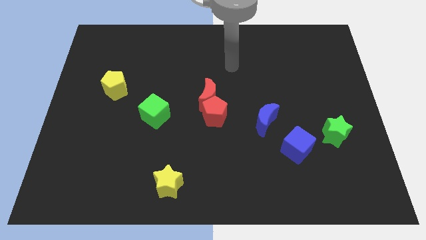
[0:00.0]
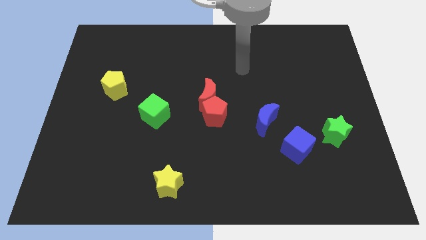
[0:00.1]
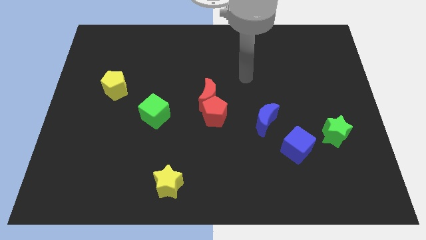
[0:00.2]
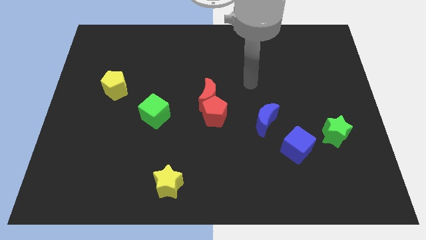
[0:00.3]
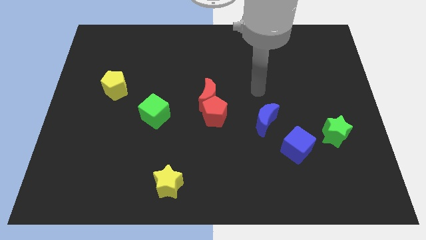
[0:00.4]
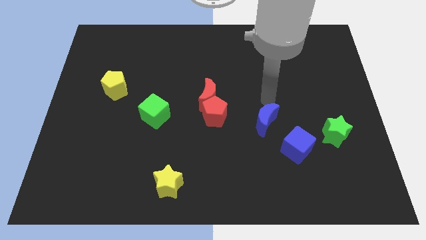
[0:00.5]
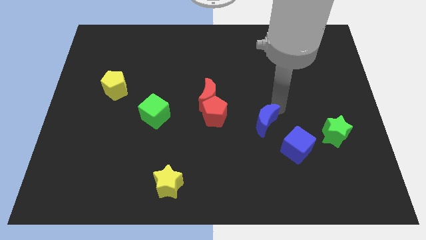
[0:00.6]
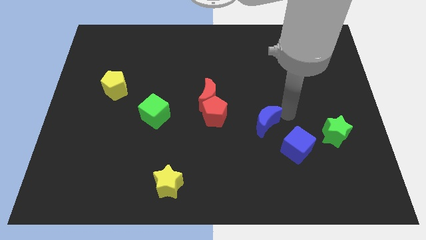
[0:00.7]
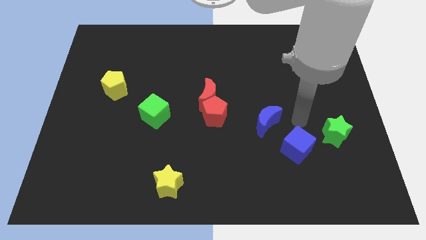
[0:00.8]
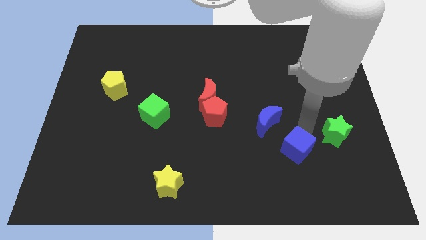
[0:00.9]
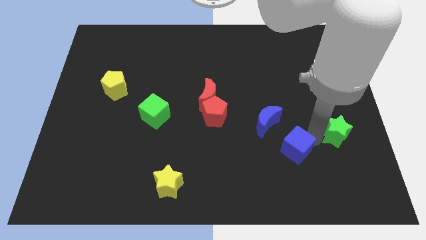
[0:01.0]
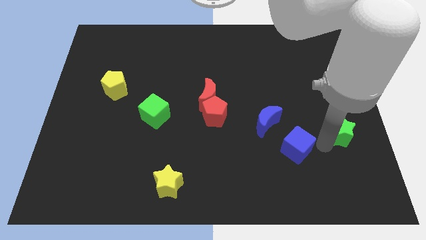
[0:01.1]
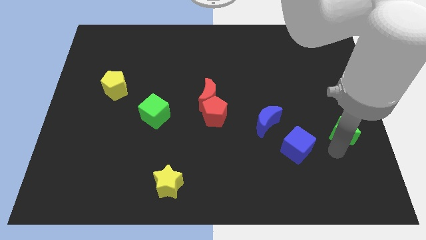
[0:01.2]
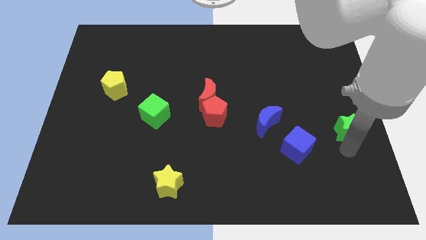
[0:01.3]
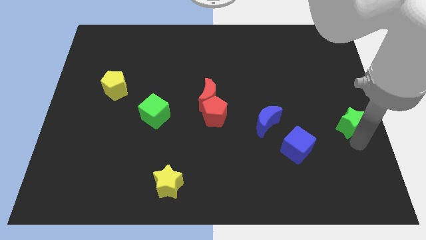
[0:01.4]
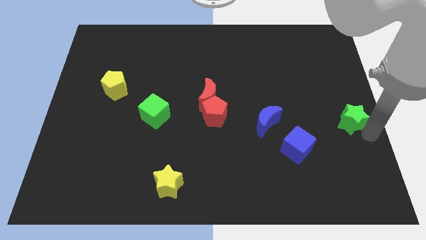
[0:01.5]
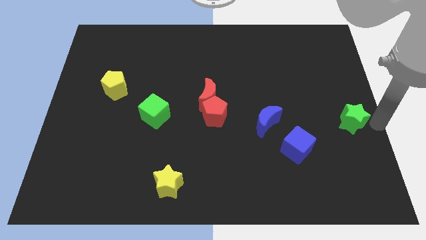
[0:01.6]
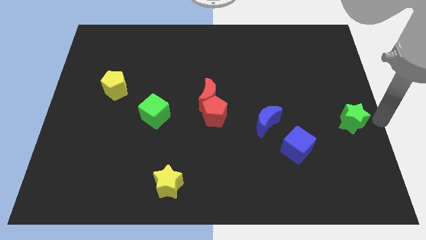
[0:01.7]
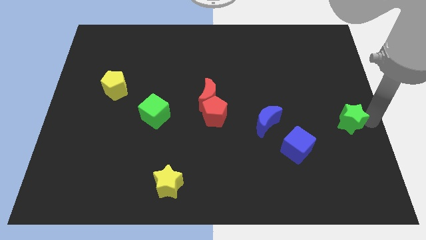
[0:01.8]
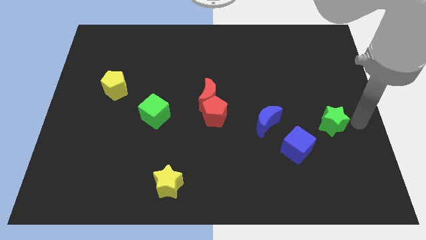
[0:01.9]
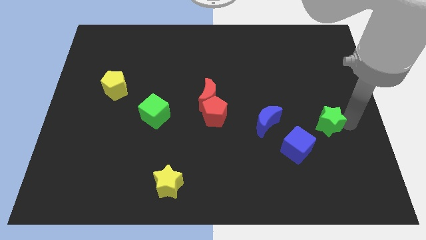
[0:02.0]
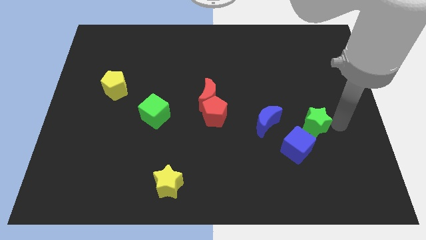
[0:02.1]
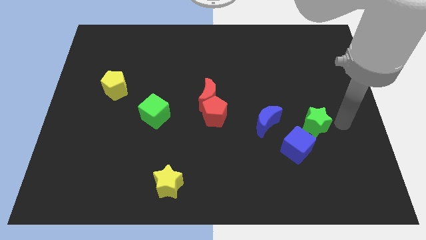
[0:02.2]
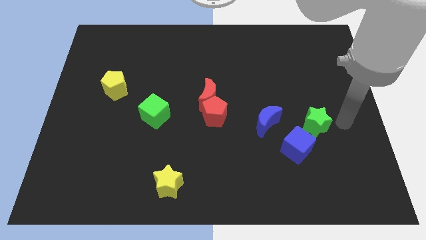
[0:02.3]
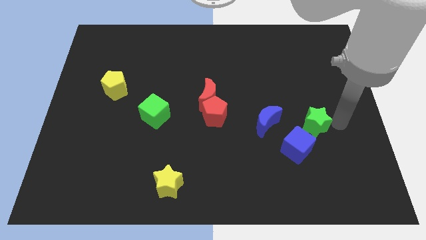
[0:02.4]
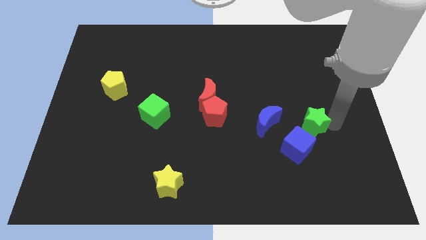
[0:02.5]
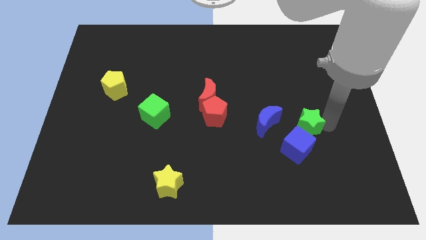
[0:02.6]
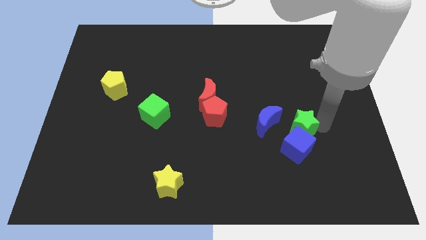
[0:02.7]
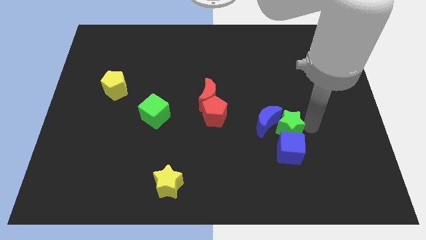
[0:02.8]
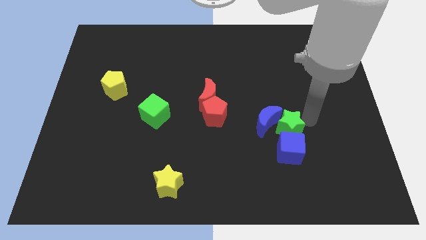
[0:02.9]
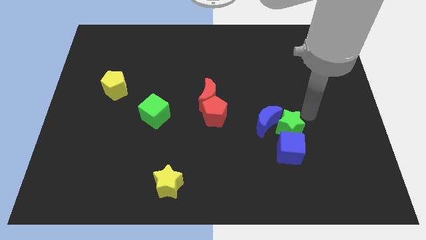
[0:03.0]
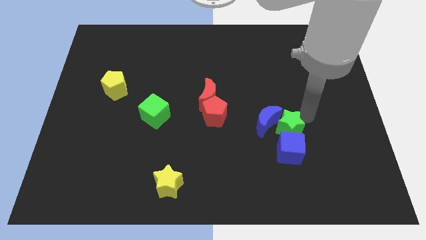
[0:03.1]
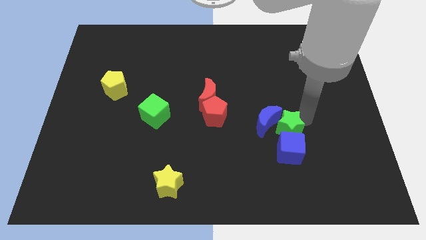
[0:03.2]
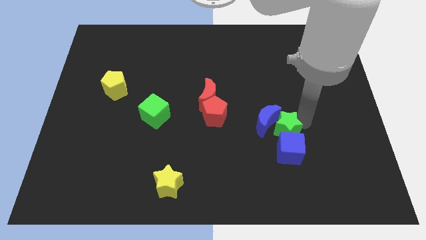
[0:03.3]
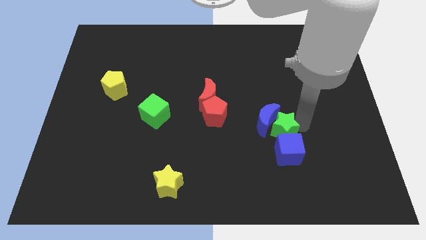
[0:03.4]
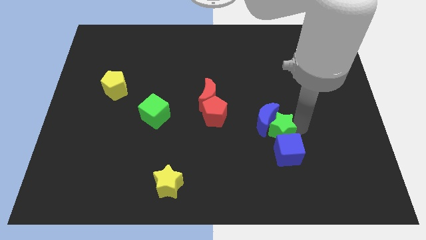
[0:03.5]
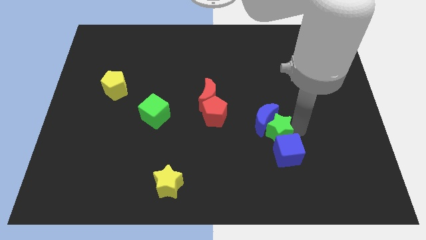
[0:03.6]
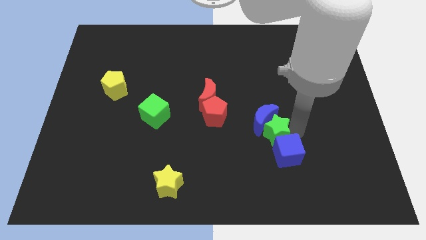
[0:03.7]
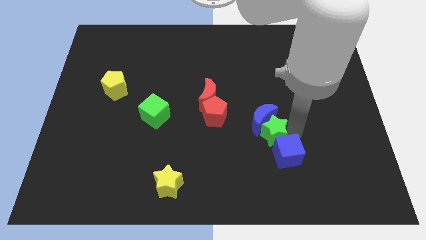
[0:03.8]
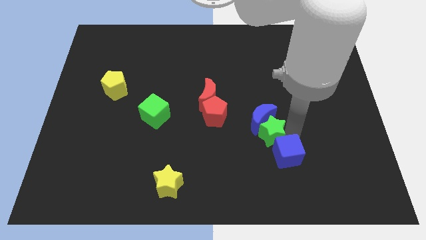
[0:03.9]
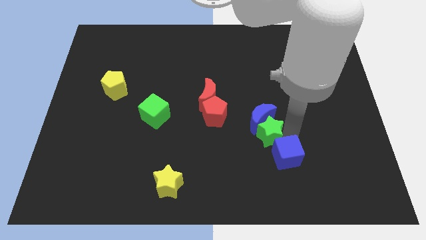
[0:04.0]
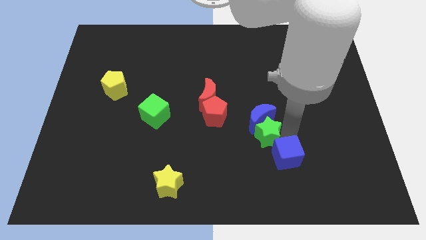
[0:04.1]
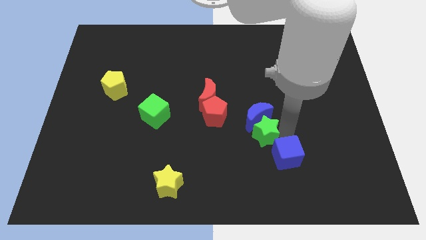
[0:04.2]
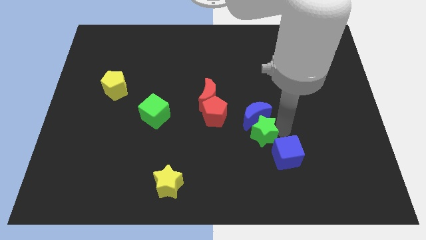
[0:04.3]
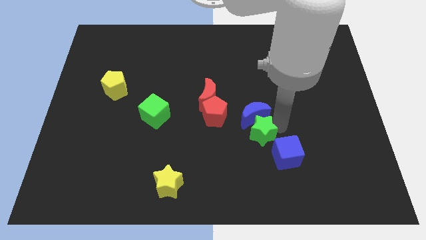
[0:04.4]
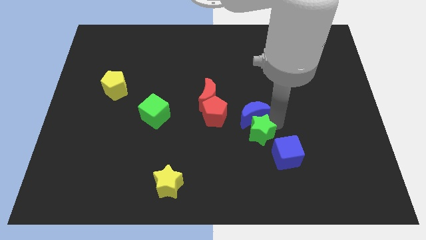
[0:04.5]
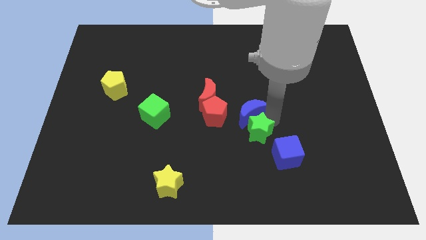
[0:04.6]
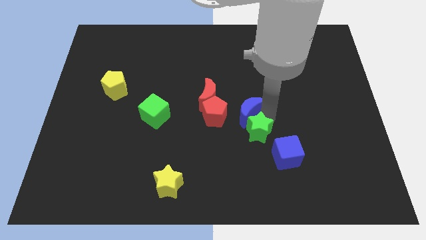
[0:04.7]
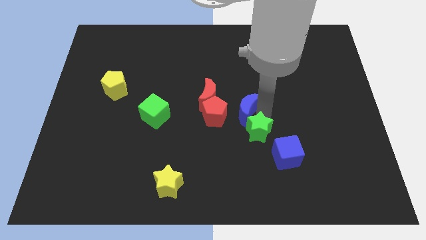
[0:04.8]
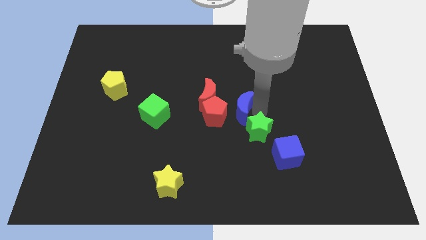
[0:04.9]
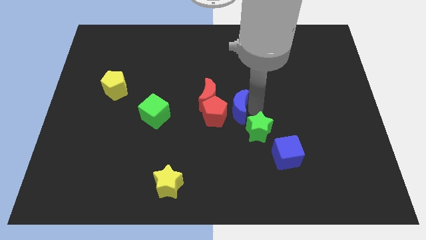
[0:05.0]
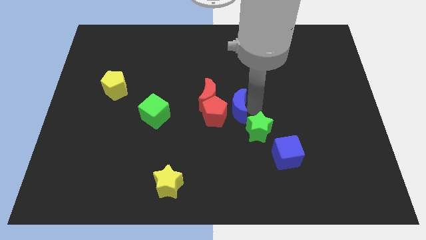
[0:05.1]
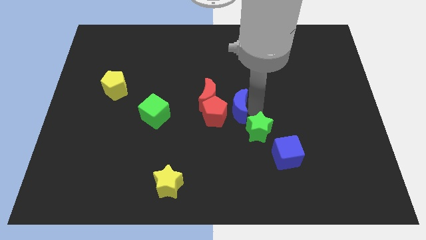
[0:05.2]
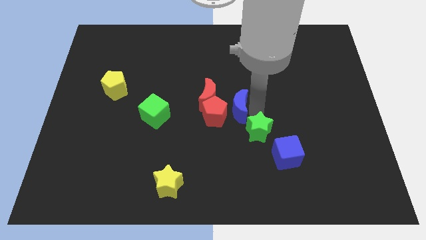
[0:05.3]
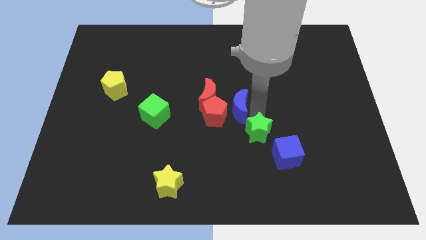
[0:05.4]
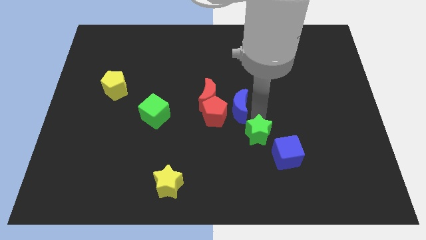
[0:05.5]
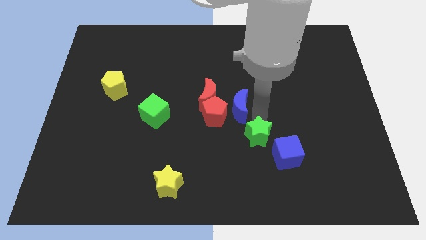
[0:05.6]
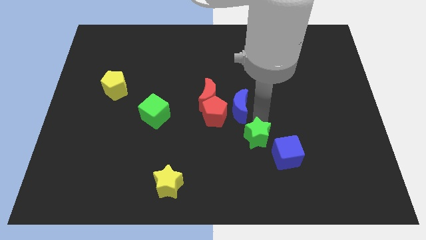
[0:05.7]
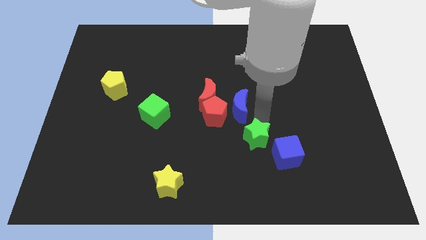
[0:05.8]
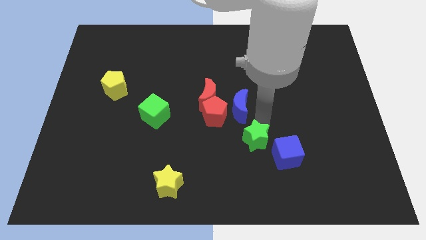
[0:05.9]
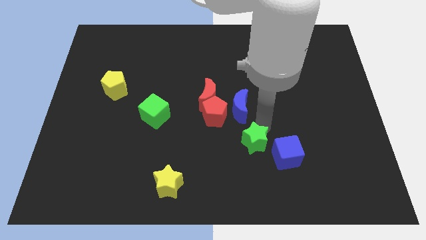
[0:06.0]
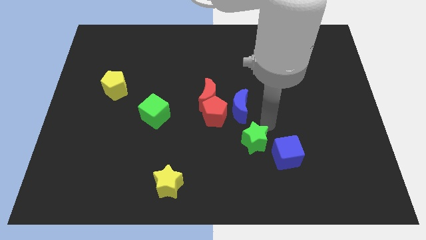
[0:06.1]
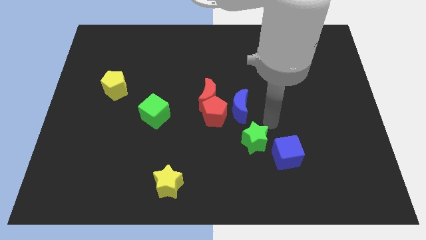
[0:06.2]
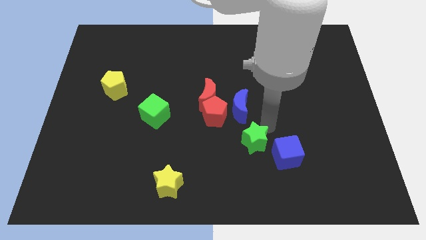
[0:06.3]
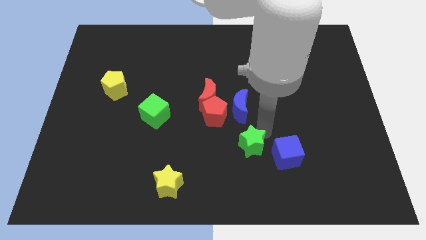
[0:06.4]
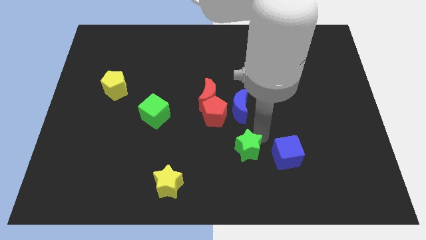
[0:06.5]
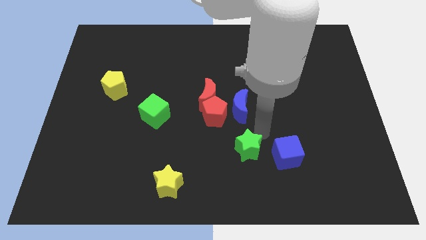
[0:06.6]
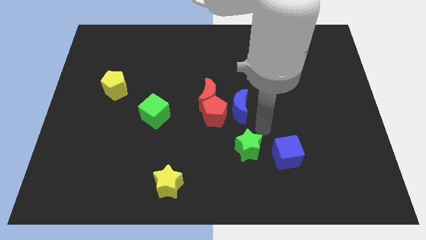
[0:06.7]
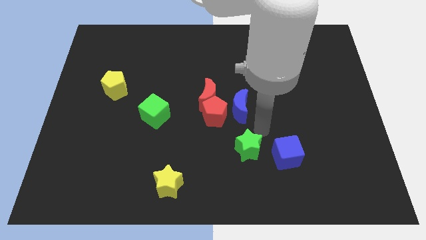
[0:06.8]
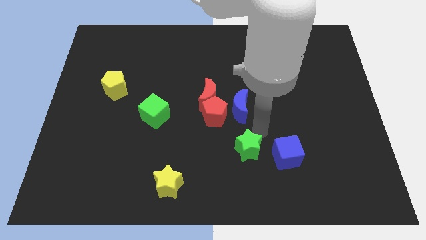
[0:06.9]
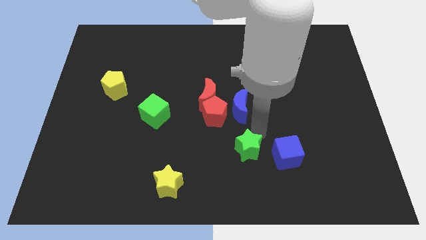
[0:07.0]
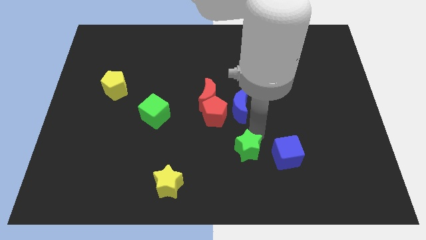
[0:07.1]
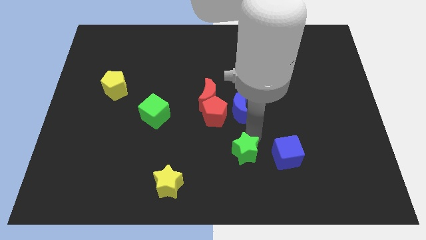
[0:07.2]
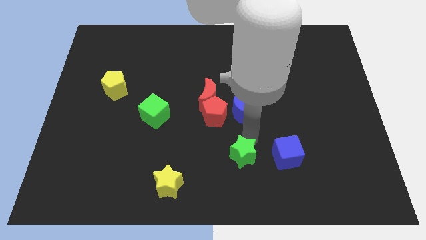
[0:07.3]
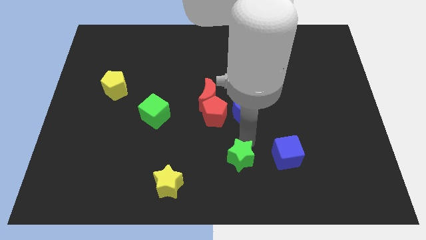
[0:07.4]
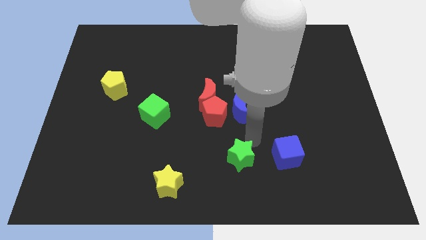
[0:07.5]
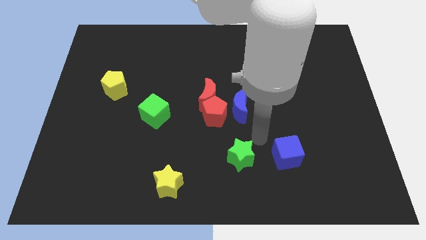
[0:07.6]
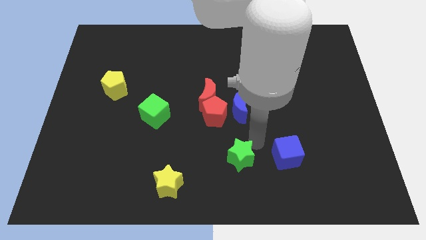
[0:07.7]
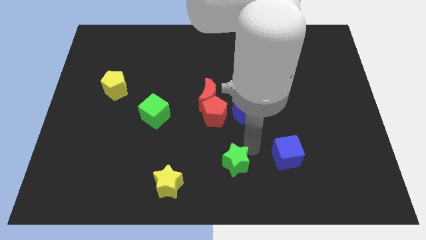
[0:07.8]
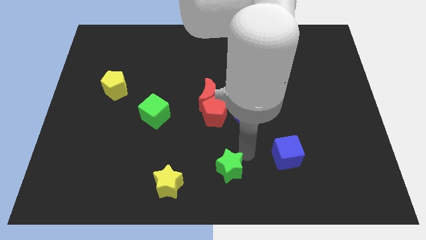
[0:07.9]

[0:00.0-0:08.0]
slide the green star right of the yellow star
